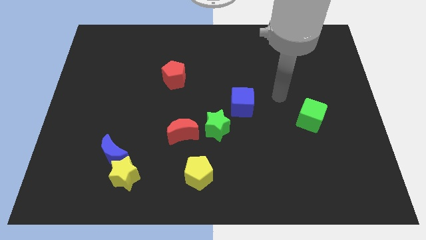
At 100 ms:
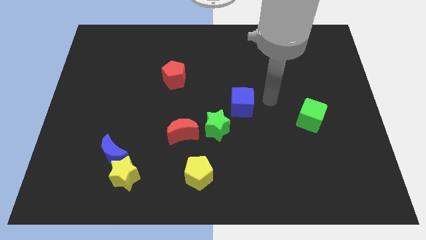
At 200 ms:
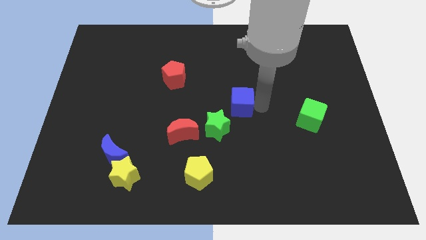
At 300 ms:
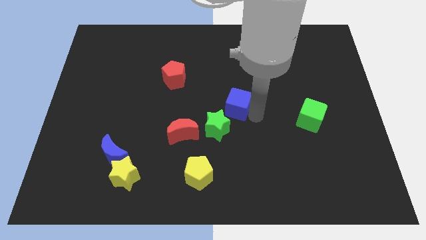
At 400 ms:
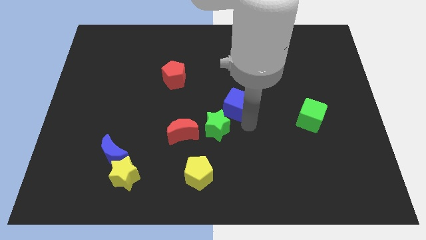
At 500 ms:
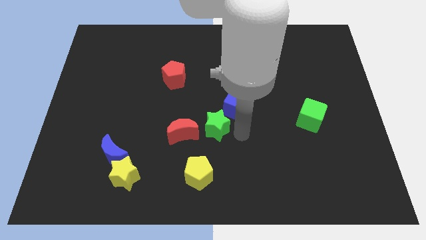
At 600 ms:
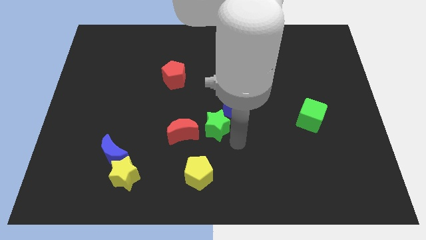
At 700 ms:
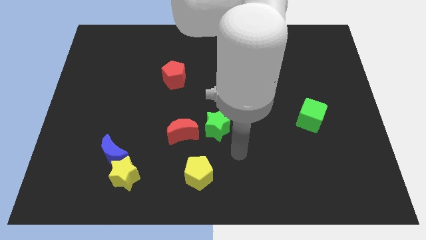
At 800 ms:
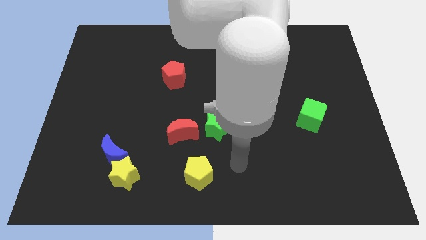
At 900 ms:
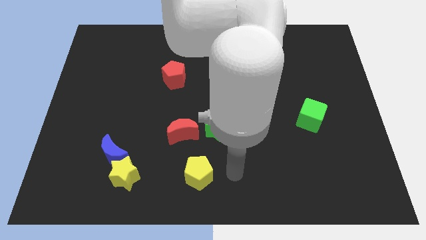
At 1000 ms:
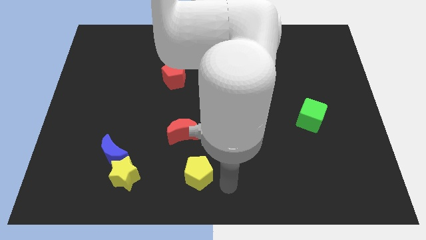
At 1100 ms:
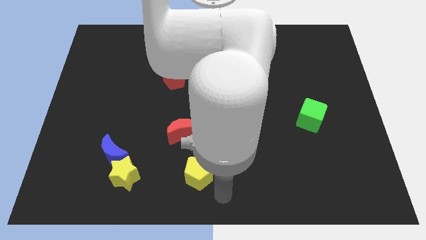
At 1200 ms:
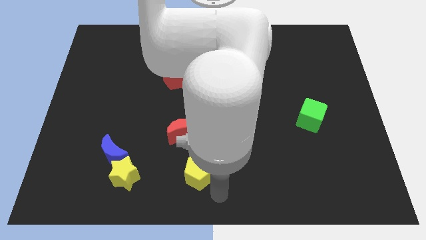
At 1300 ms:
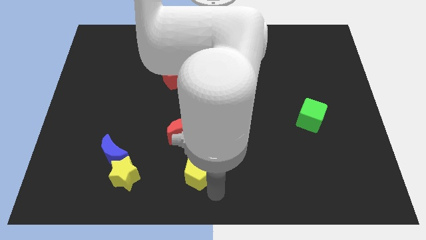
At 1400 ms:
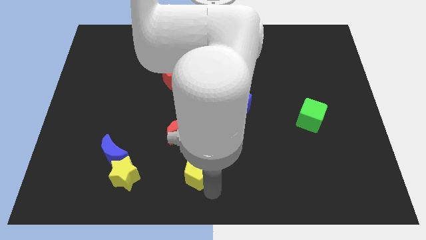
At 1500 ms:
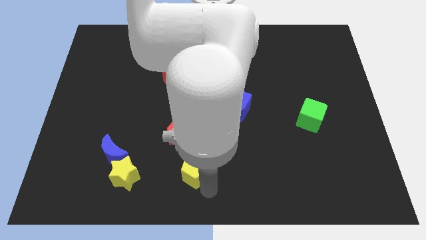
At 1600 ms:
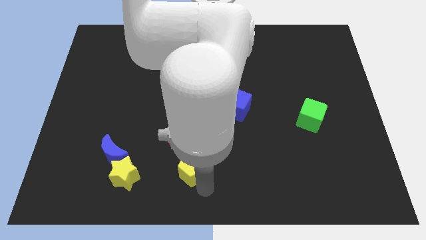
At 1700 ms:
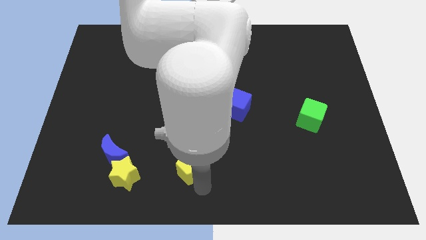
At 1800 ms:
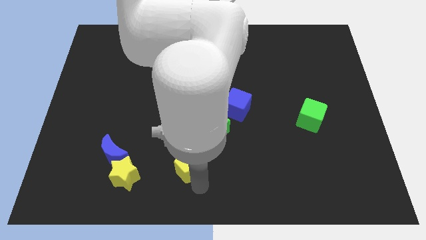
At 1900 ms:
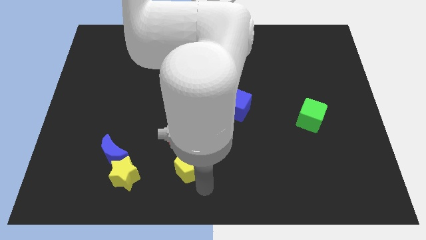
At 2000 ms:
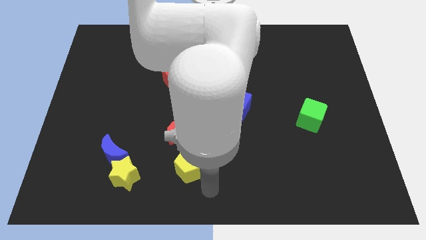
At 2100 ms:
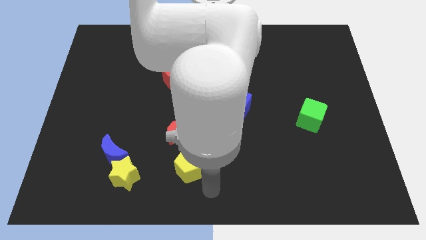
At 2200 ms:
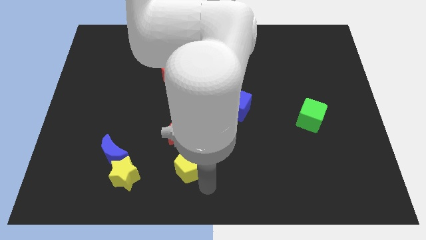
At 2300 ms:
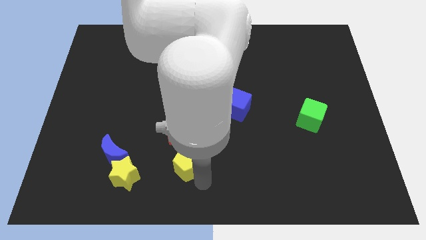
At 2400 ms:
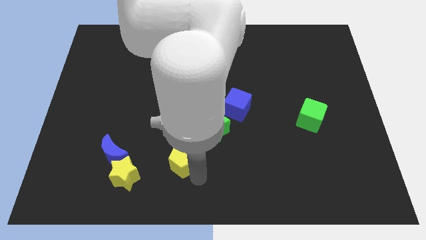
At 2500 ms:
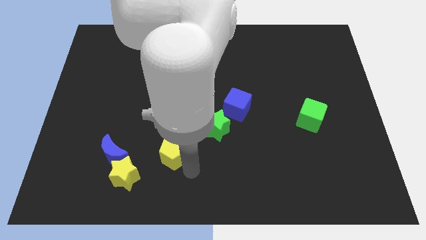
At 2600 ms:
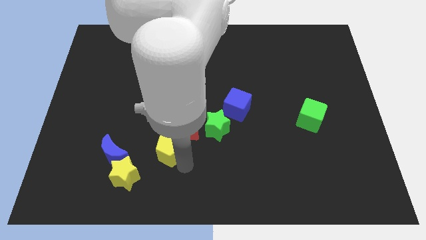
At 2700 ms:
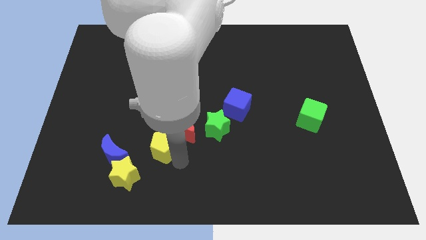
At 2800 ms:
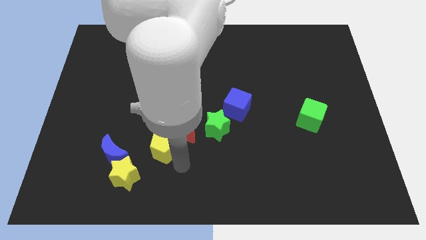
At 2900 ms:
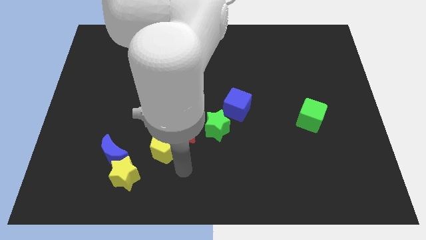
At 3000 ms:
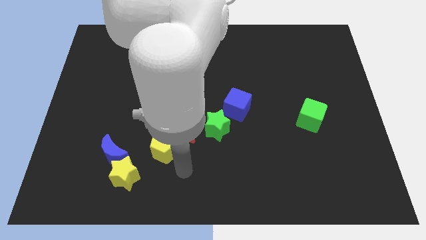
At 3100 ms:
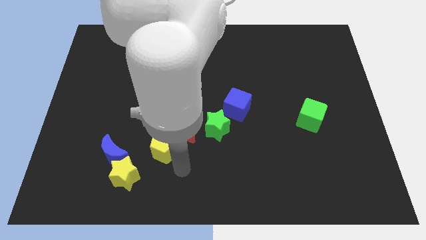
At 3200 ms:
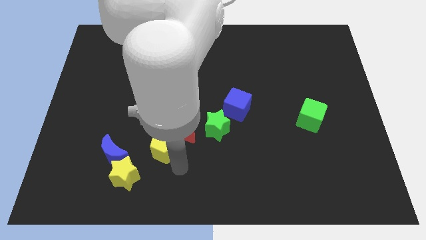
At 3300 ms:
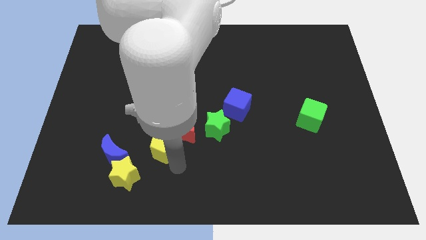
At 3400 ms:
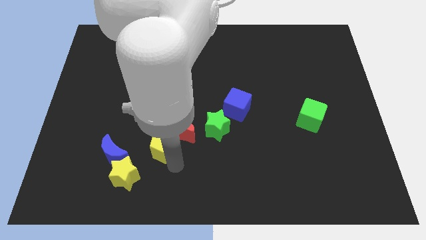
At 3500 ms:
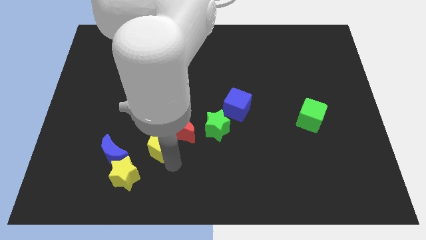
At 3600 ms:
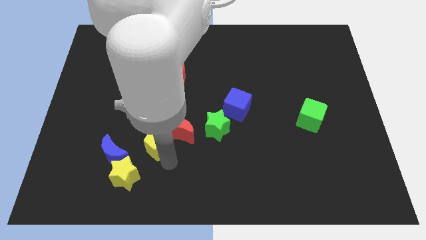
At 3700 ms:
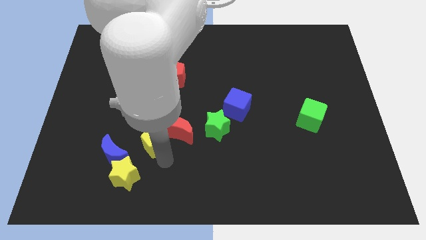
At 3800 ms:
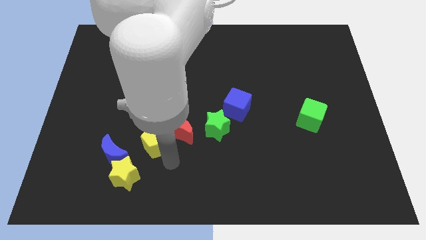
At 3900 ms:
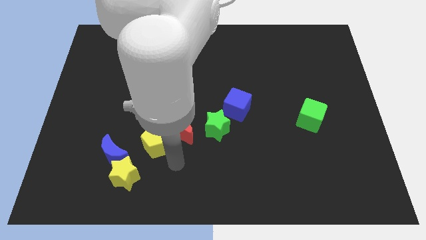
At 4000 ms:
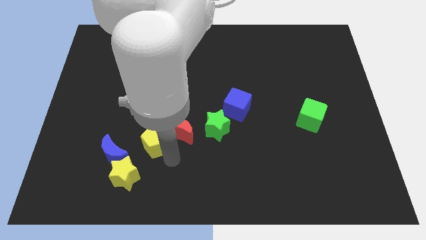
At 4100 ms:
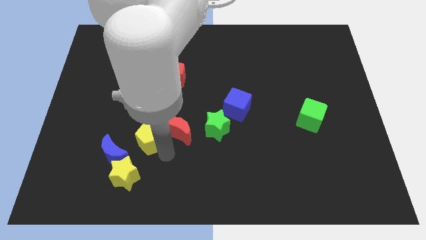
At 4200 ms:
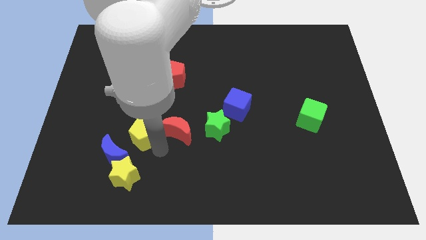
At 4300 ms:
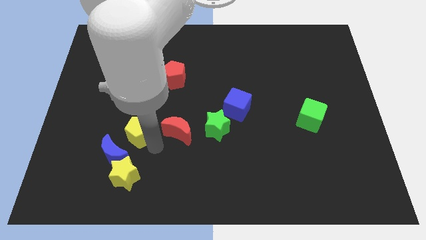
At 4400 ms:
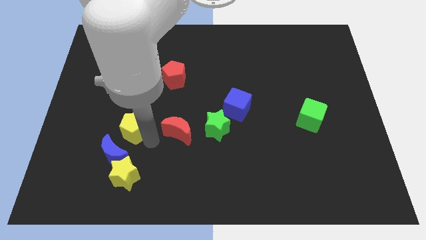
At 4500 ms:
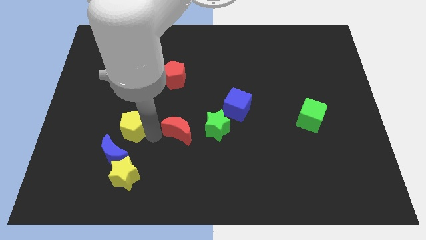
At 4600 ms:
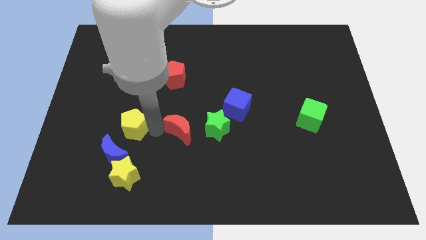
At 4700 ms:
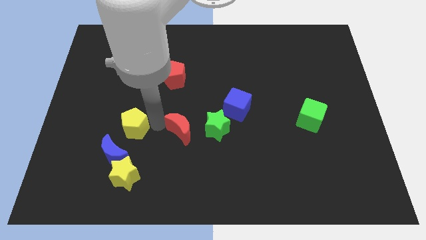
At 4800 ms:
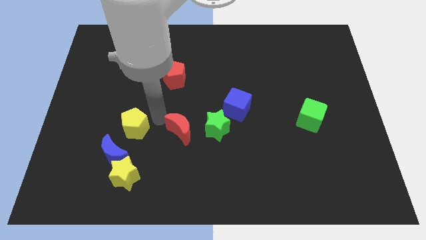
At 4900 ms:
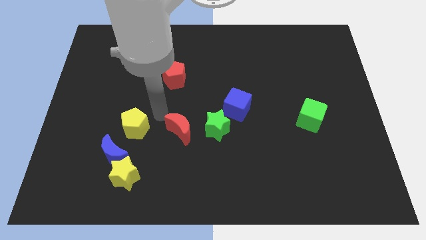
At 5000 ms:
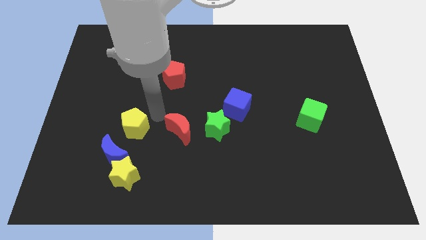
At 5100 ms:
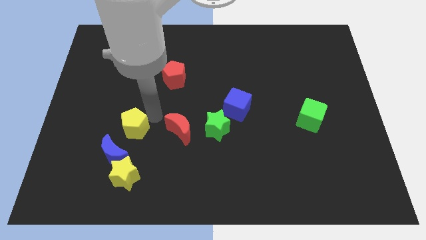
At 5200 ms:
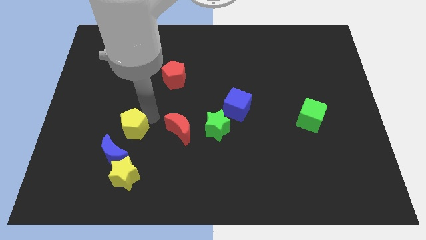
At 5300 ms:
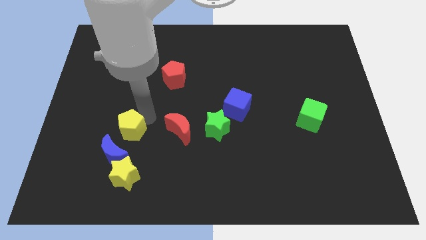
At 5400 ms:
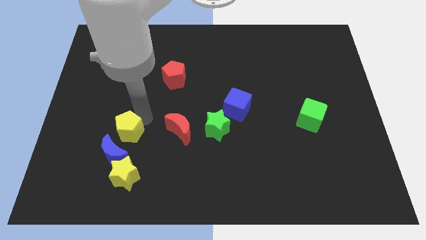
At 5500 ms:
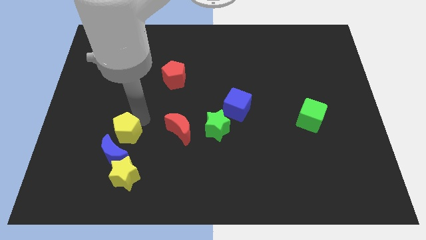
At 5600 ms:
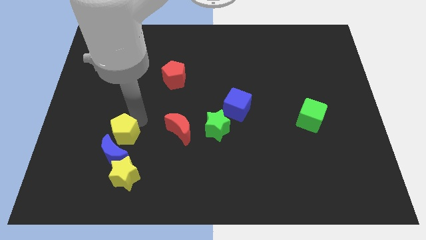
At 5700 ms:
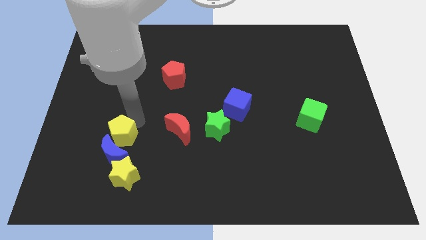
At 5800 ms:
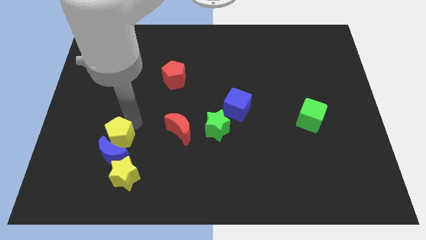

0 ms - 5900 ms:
move the yellow pentagon diagonally up and to the left of the yellow star
